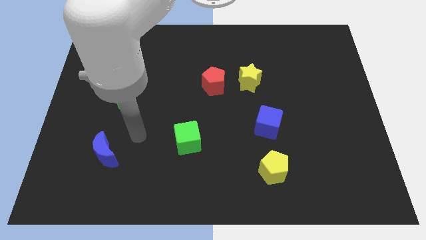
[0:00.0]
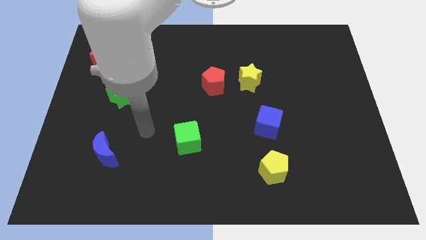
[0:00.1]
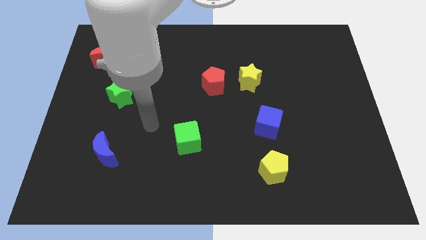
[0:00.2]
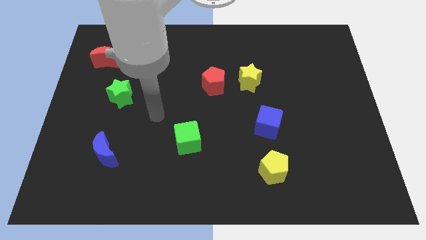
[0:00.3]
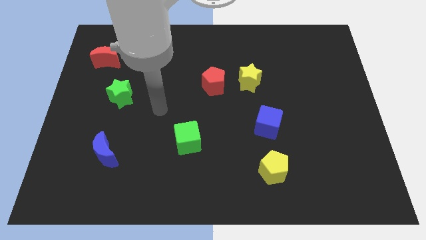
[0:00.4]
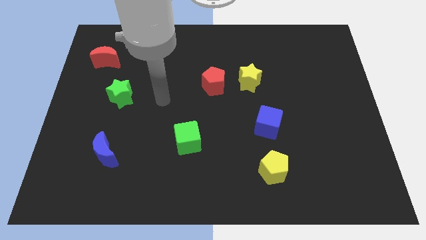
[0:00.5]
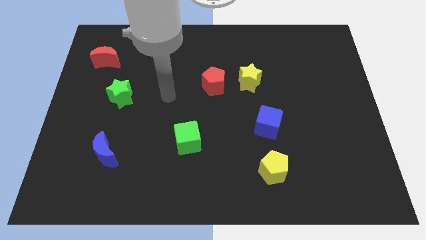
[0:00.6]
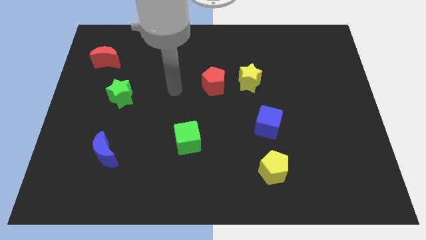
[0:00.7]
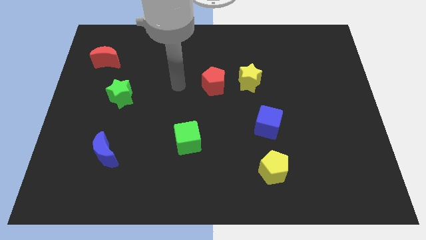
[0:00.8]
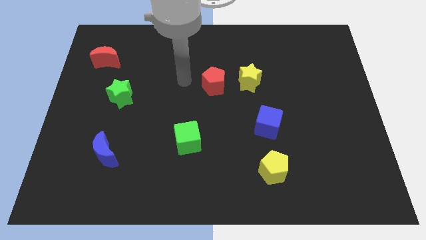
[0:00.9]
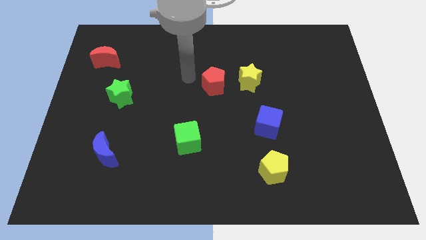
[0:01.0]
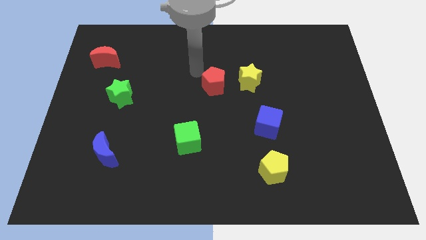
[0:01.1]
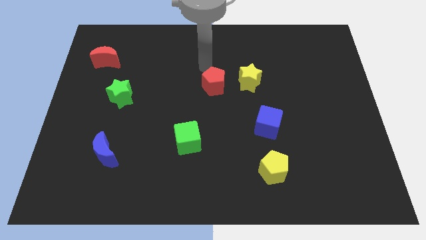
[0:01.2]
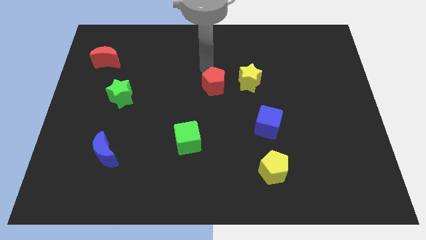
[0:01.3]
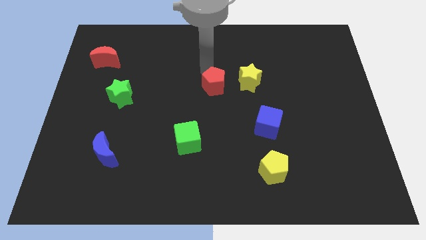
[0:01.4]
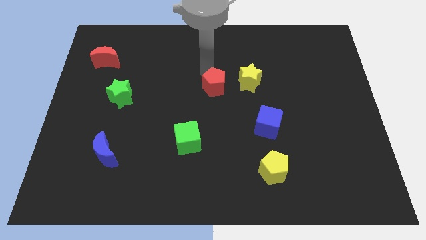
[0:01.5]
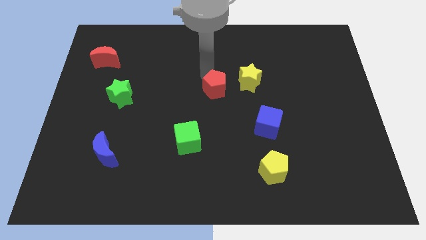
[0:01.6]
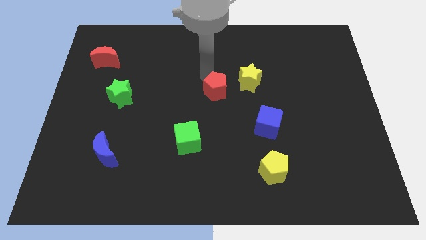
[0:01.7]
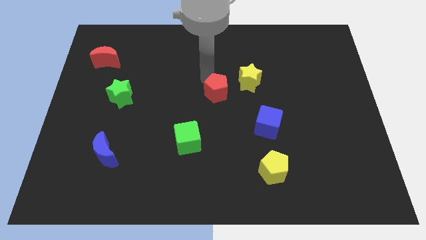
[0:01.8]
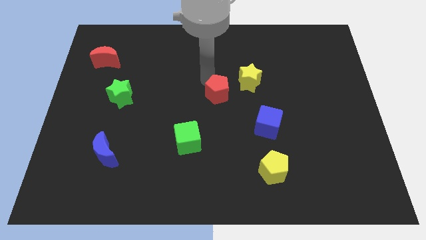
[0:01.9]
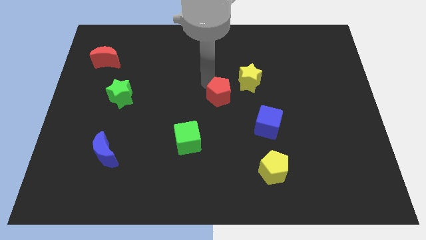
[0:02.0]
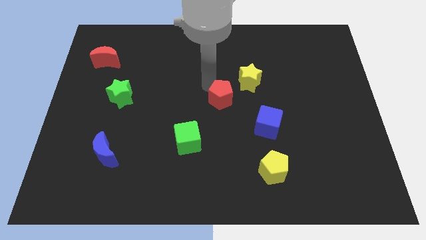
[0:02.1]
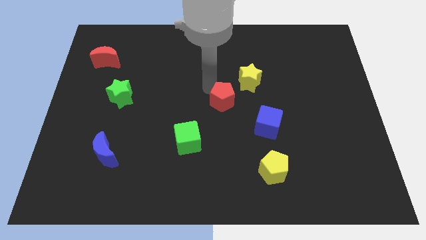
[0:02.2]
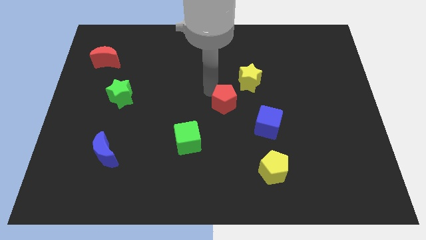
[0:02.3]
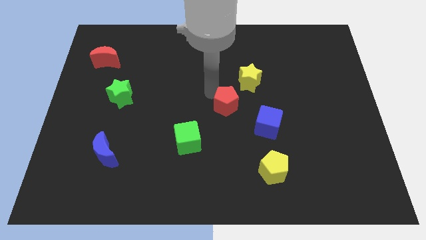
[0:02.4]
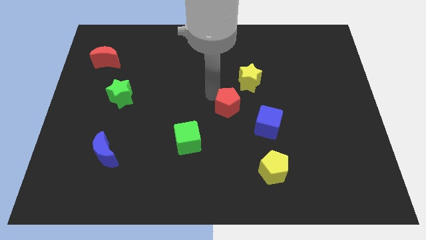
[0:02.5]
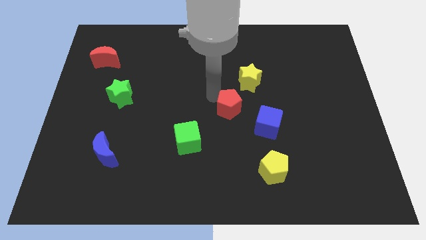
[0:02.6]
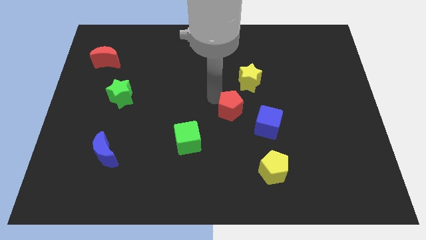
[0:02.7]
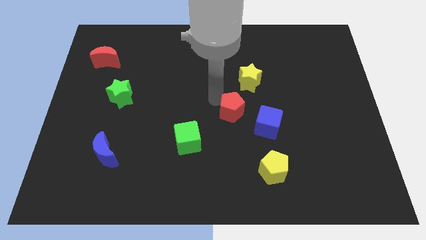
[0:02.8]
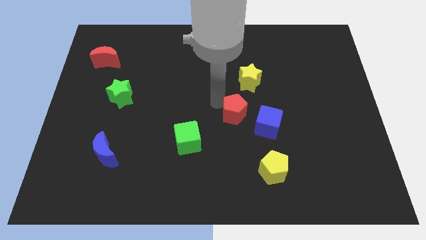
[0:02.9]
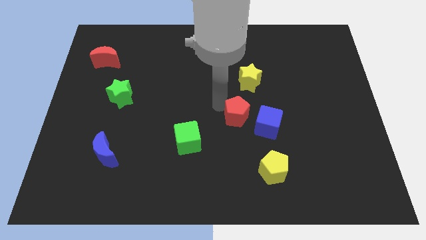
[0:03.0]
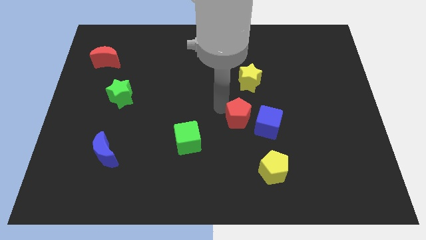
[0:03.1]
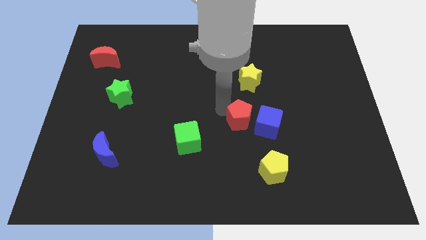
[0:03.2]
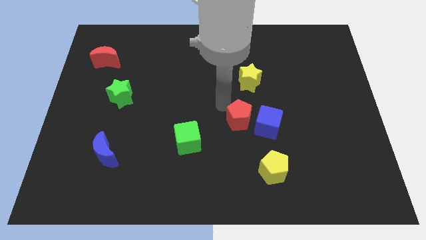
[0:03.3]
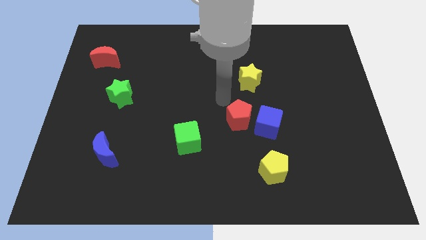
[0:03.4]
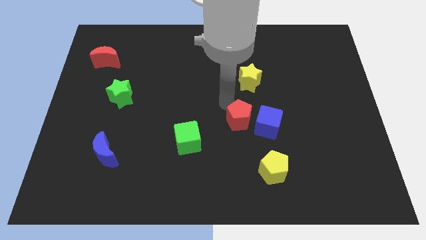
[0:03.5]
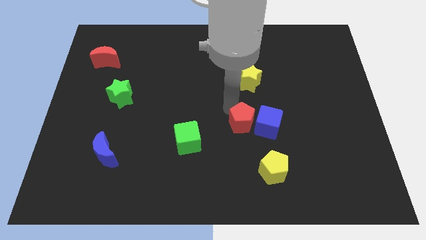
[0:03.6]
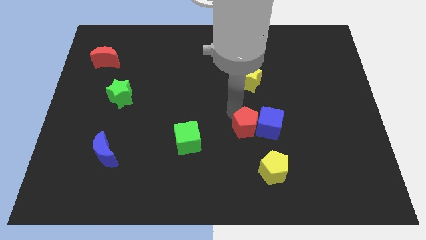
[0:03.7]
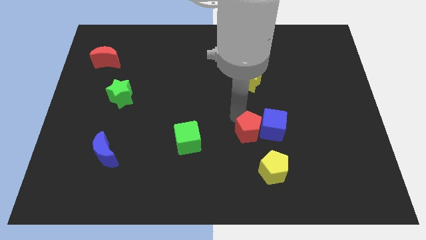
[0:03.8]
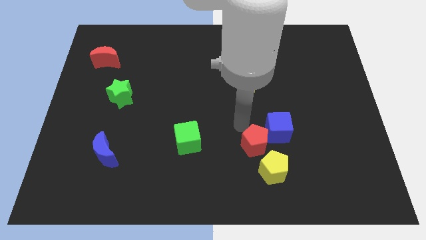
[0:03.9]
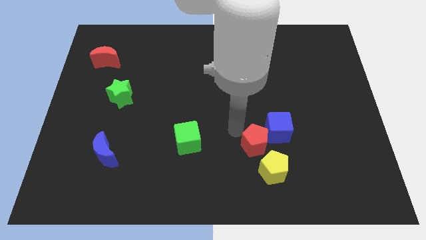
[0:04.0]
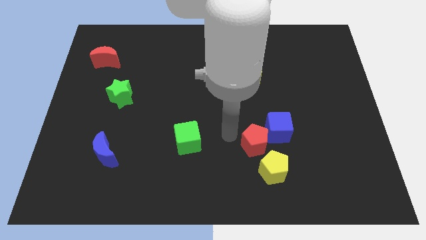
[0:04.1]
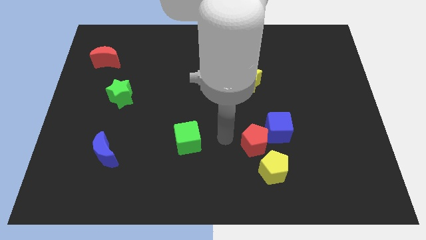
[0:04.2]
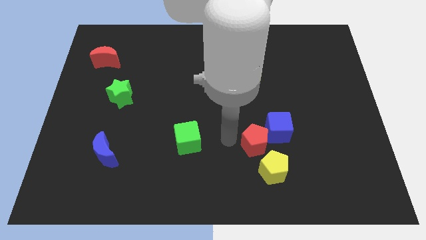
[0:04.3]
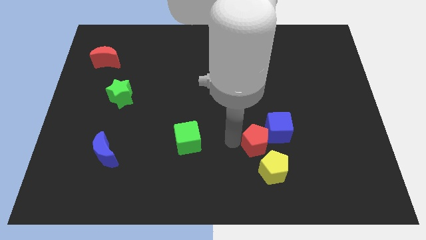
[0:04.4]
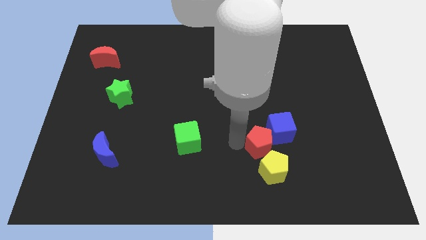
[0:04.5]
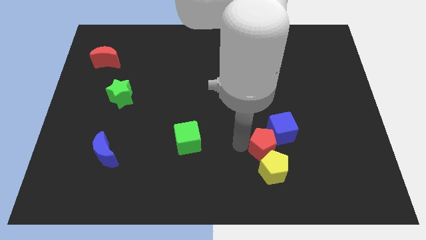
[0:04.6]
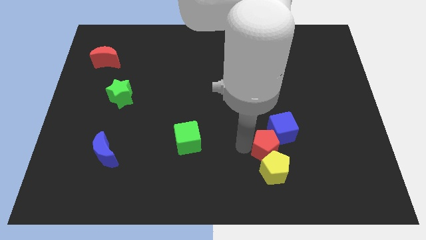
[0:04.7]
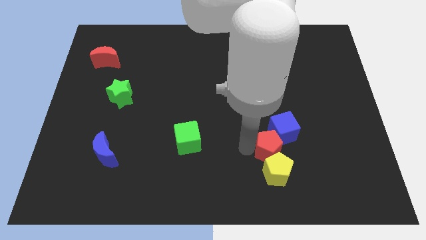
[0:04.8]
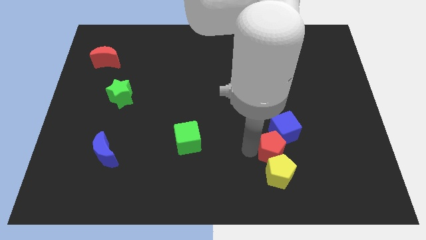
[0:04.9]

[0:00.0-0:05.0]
put the red pentagon to the top right of the yellow pentagon

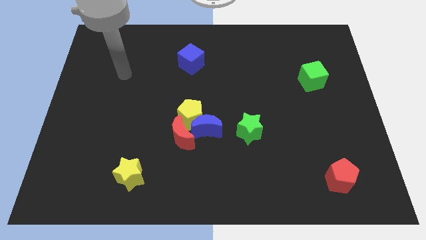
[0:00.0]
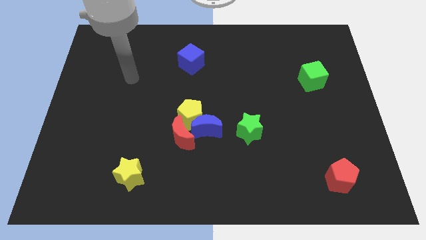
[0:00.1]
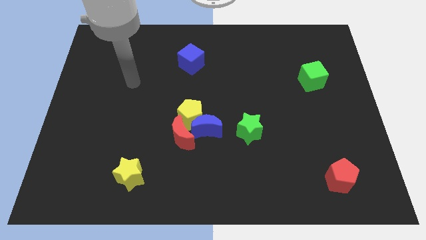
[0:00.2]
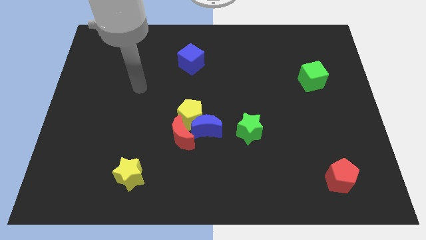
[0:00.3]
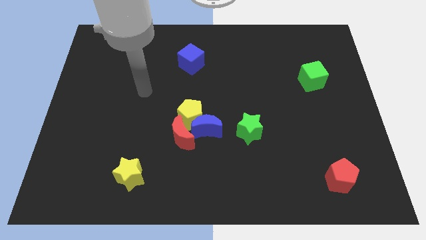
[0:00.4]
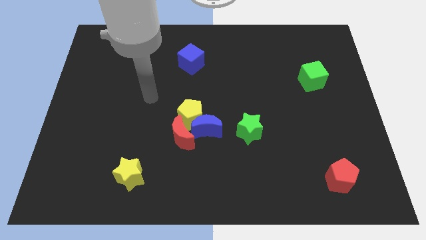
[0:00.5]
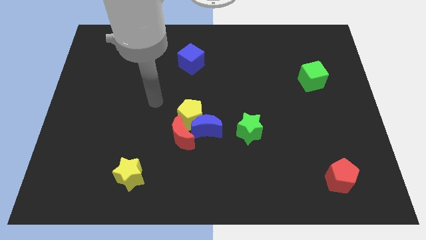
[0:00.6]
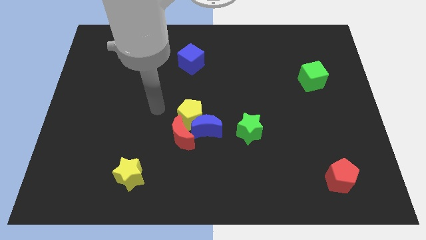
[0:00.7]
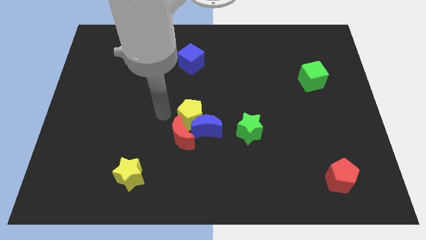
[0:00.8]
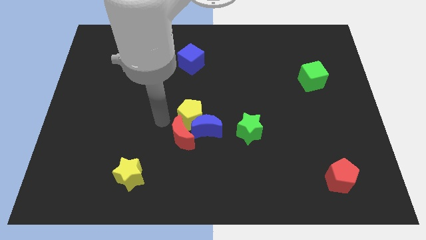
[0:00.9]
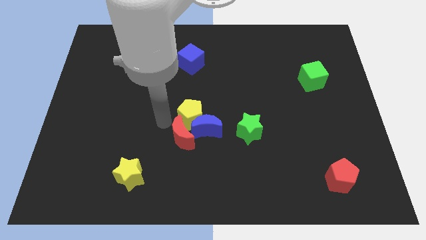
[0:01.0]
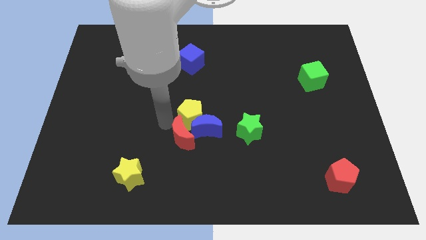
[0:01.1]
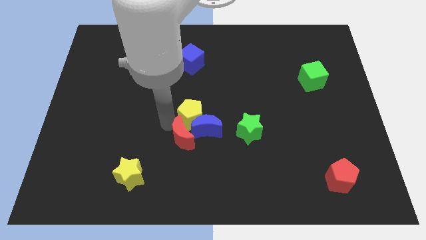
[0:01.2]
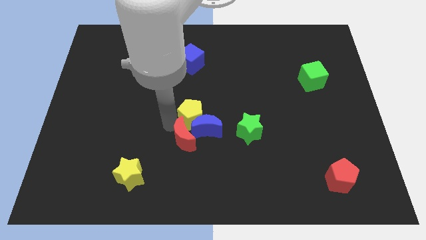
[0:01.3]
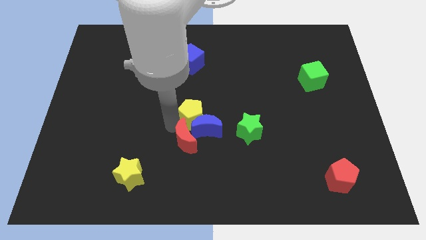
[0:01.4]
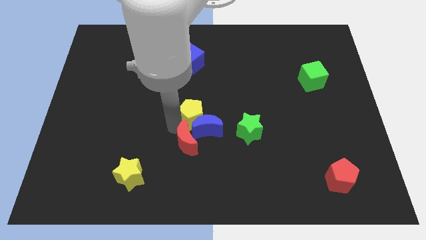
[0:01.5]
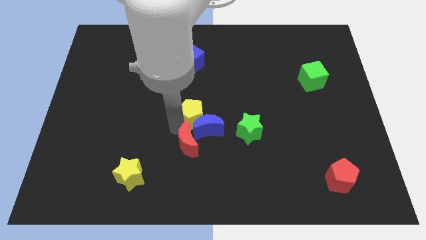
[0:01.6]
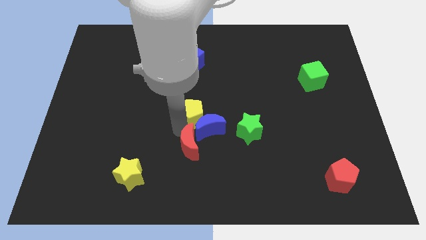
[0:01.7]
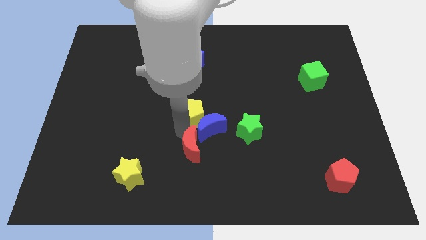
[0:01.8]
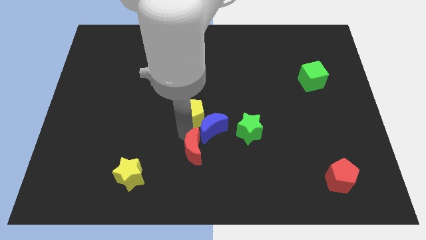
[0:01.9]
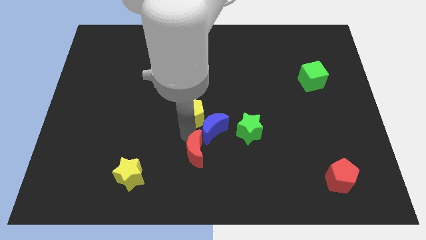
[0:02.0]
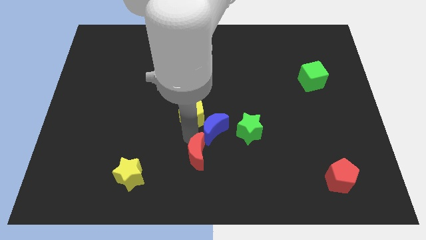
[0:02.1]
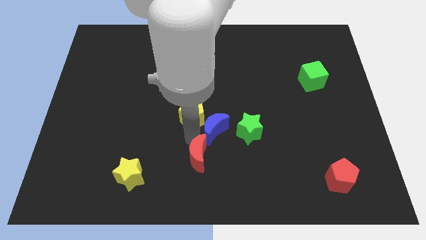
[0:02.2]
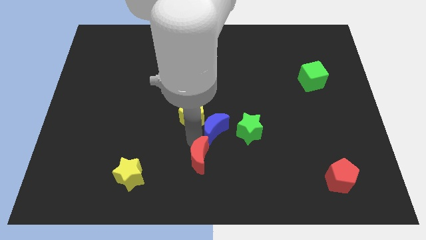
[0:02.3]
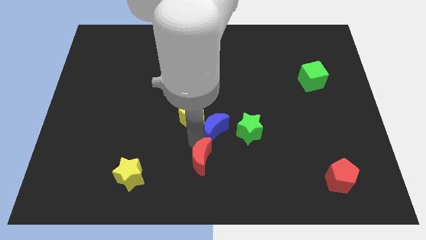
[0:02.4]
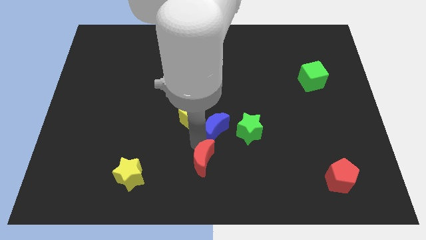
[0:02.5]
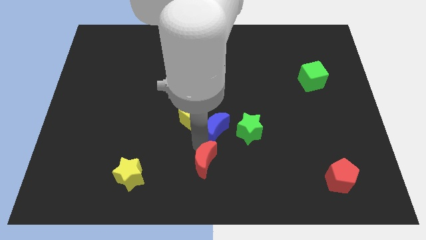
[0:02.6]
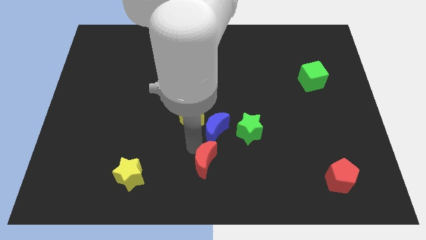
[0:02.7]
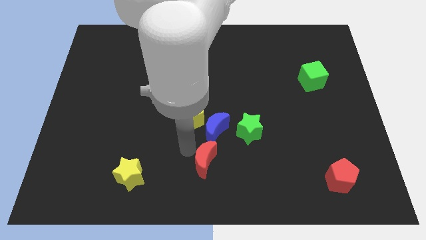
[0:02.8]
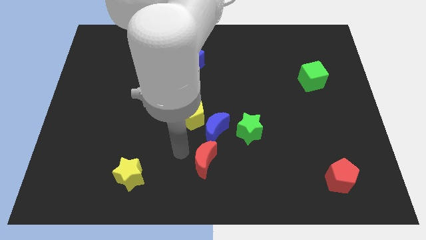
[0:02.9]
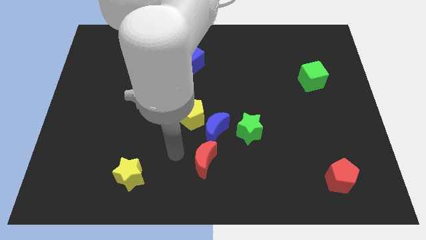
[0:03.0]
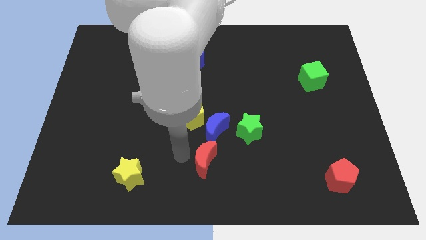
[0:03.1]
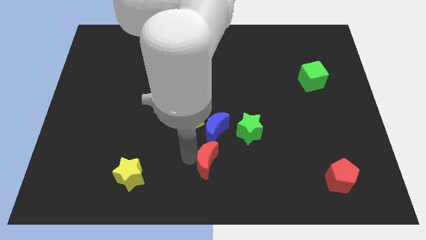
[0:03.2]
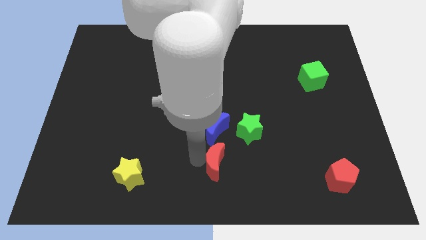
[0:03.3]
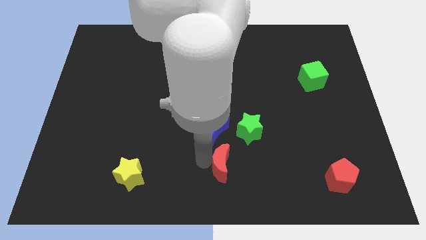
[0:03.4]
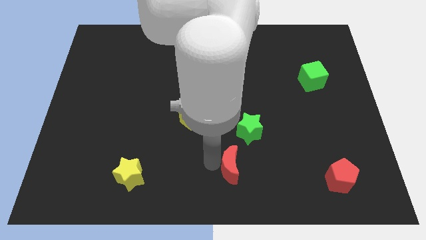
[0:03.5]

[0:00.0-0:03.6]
slide the red moon to the bottom side of the green star
